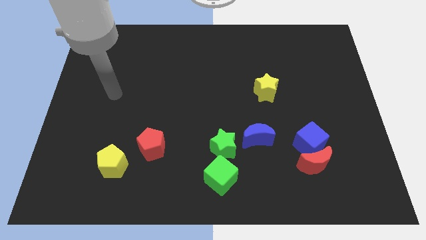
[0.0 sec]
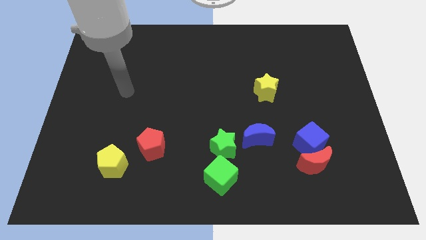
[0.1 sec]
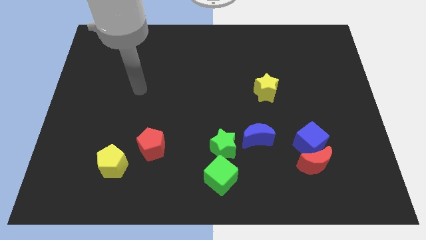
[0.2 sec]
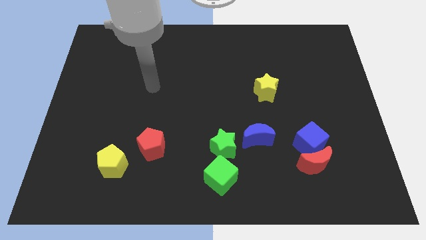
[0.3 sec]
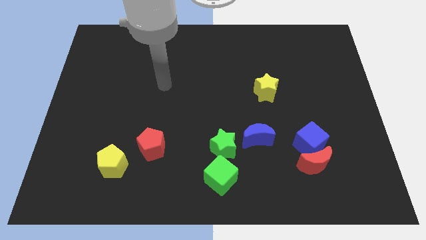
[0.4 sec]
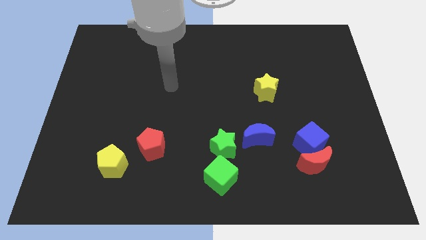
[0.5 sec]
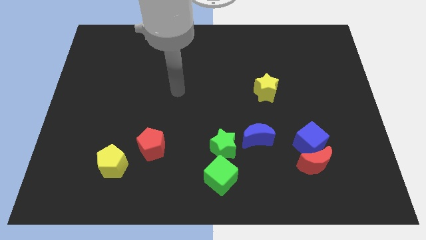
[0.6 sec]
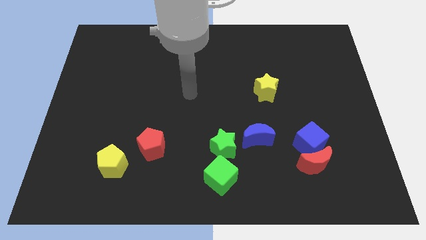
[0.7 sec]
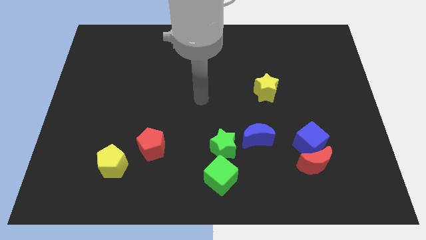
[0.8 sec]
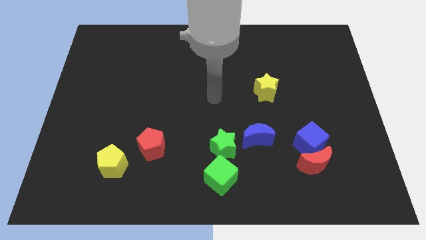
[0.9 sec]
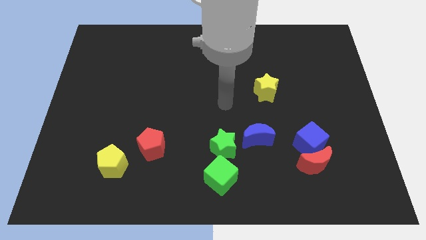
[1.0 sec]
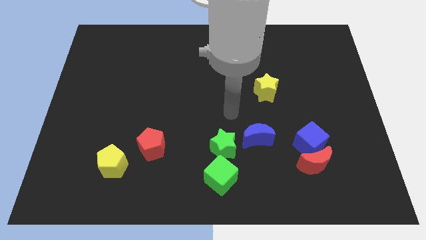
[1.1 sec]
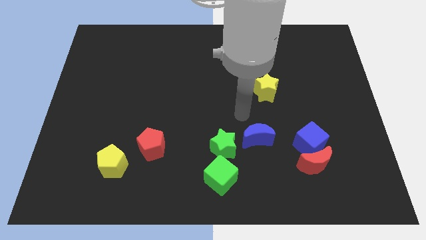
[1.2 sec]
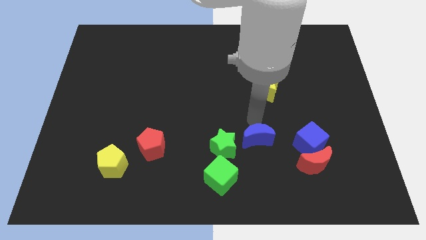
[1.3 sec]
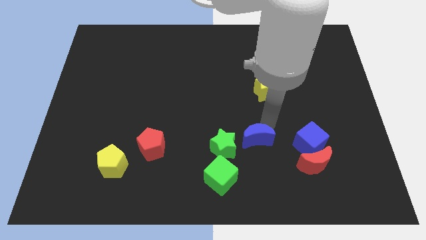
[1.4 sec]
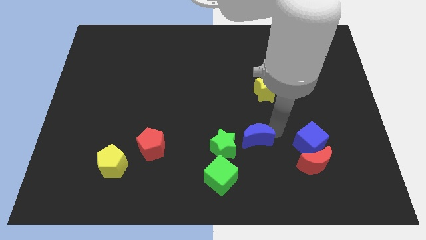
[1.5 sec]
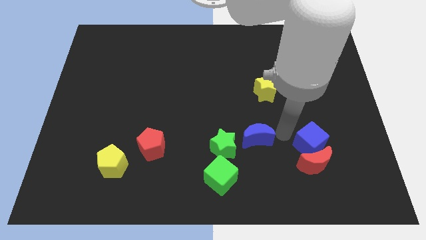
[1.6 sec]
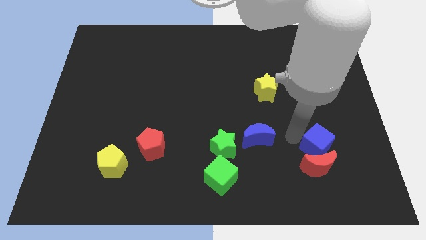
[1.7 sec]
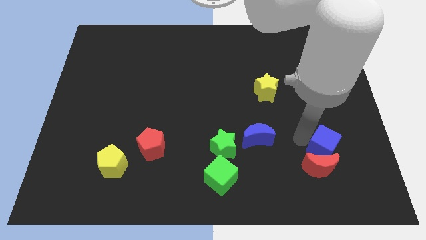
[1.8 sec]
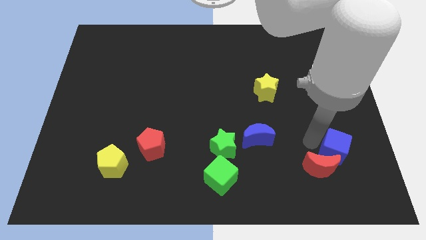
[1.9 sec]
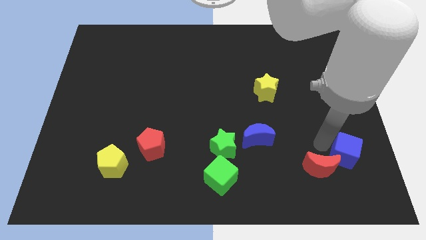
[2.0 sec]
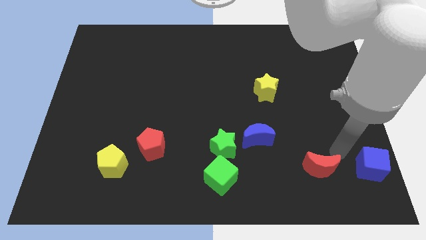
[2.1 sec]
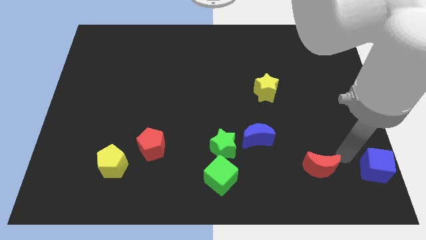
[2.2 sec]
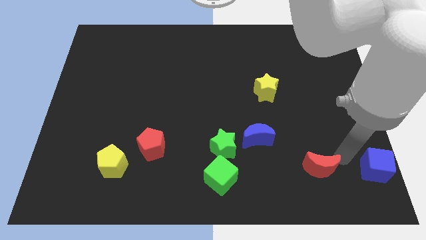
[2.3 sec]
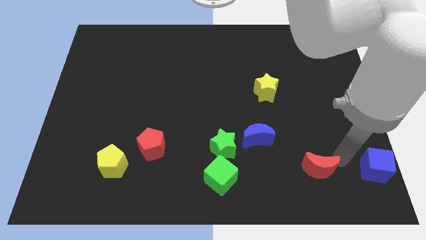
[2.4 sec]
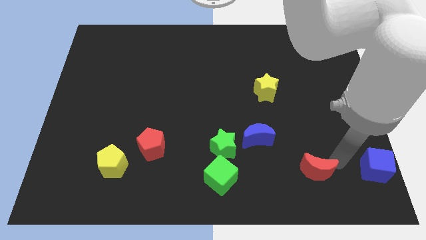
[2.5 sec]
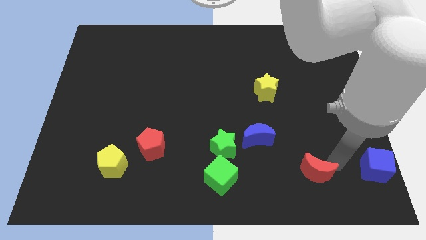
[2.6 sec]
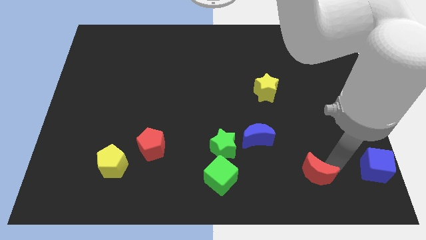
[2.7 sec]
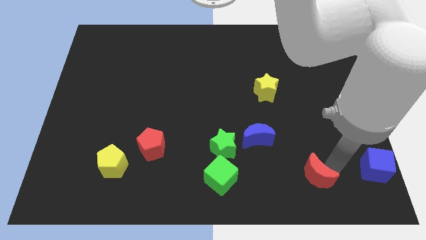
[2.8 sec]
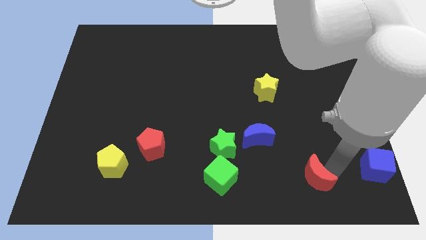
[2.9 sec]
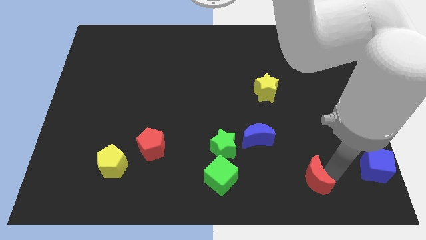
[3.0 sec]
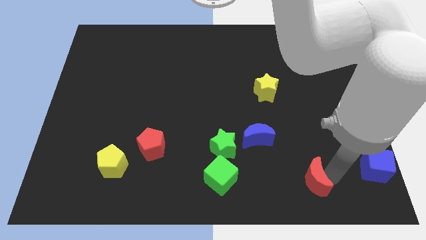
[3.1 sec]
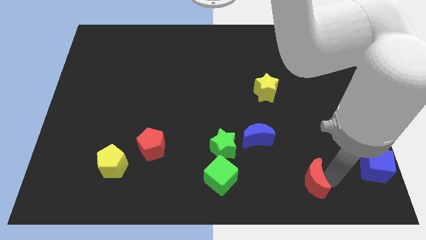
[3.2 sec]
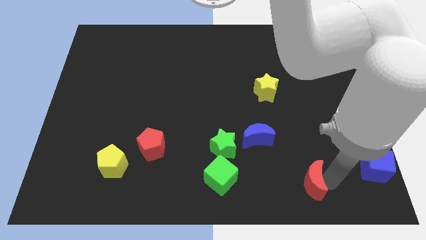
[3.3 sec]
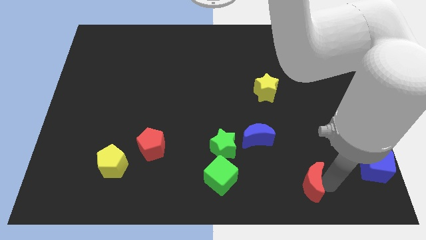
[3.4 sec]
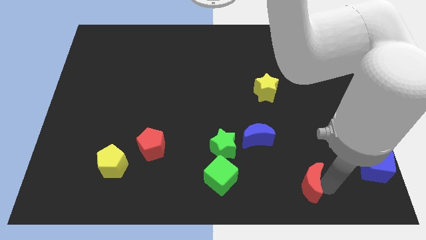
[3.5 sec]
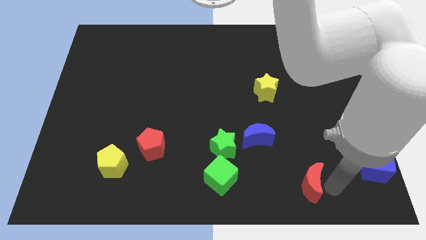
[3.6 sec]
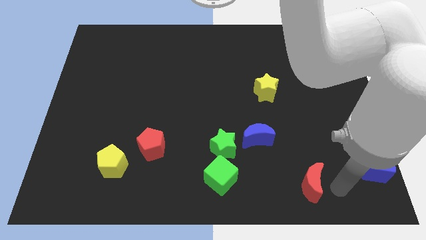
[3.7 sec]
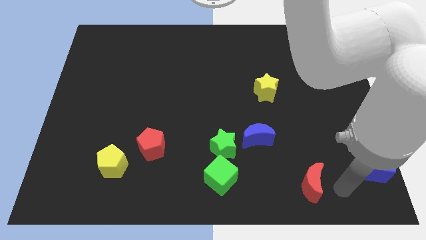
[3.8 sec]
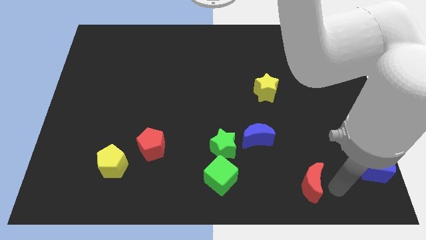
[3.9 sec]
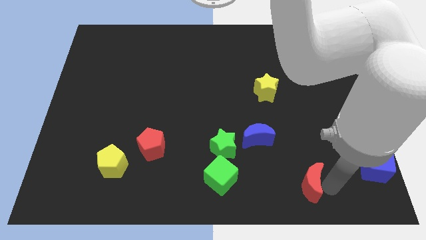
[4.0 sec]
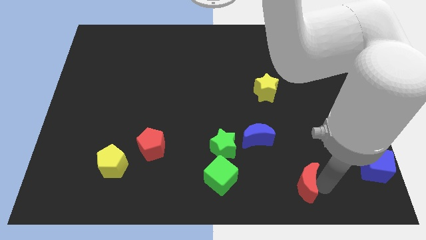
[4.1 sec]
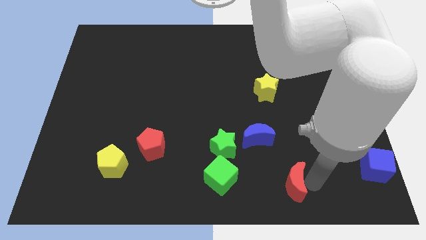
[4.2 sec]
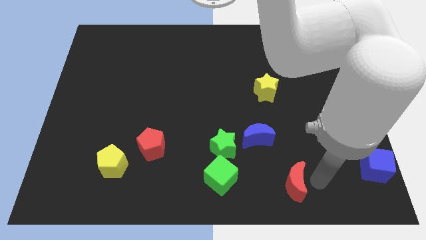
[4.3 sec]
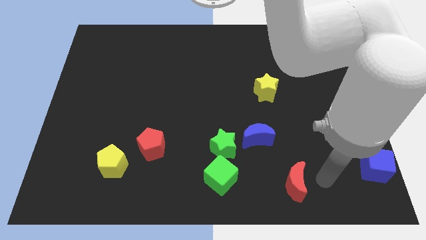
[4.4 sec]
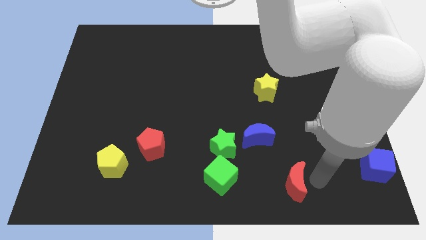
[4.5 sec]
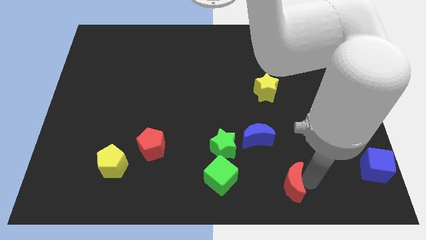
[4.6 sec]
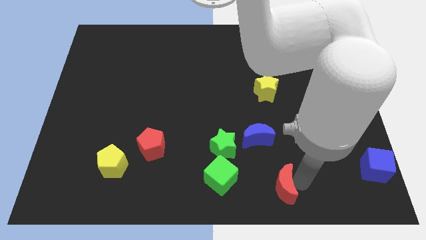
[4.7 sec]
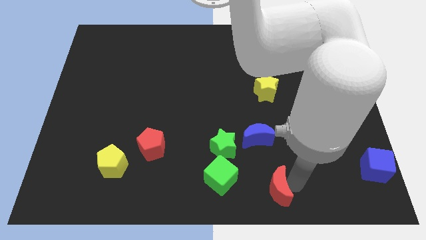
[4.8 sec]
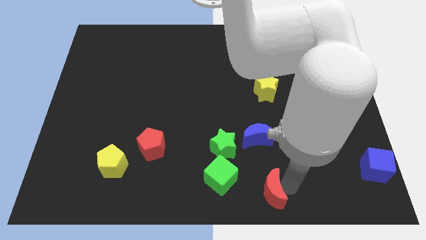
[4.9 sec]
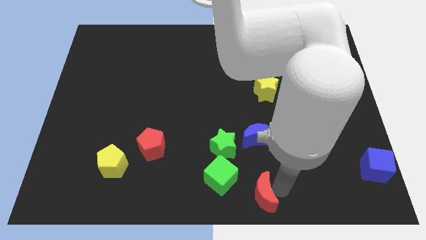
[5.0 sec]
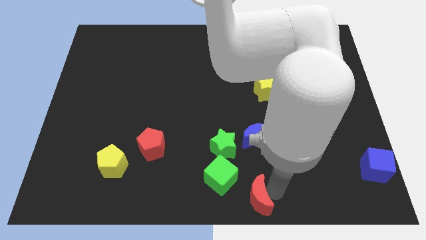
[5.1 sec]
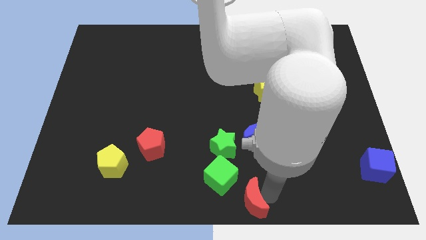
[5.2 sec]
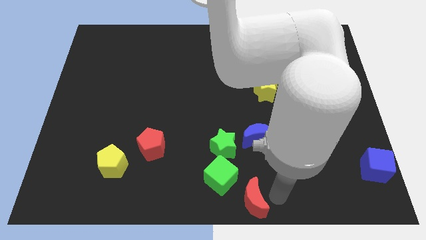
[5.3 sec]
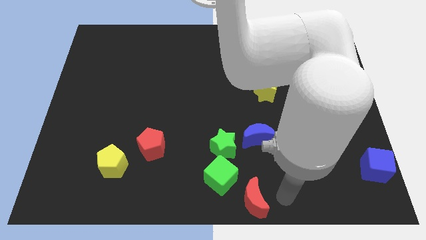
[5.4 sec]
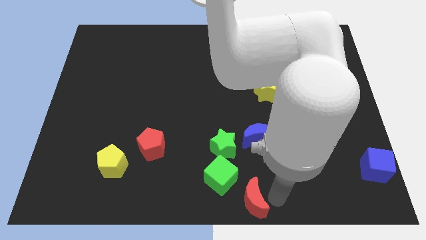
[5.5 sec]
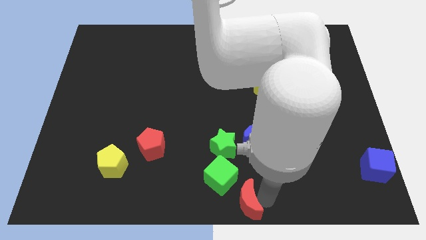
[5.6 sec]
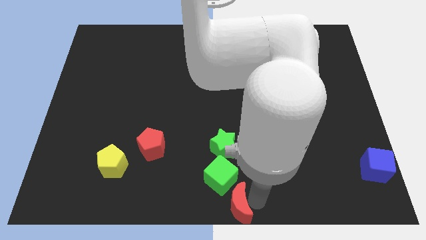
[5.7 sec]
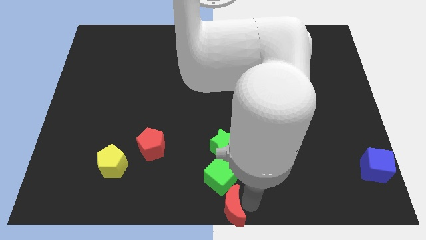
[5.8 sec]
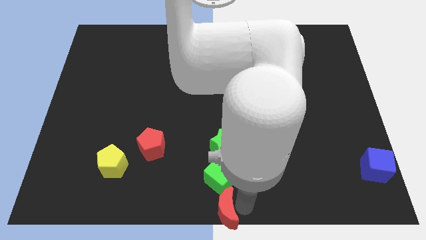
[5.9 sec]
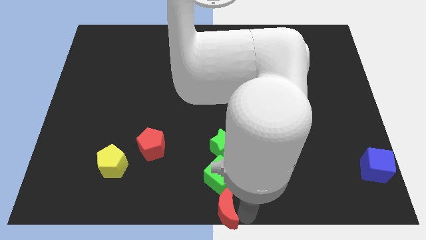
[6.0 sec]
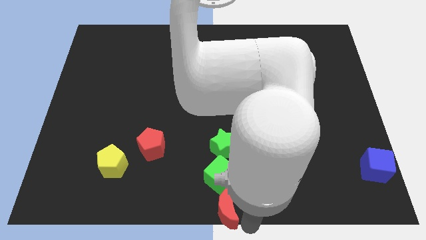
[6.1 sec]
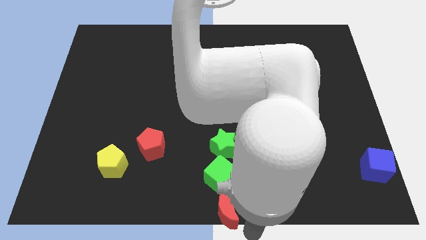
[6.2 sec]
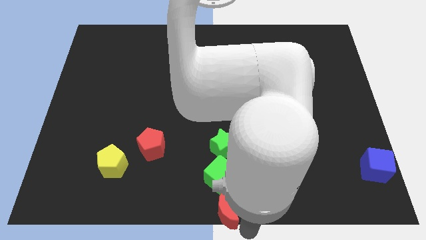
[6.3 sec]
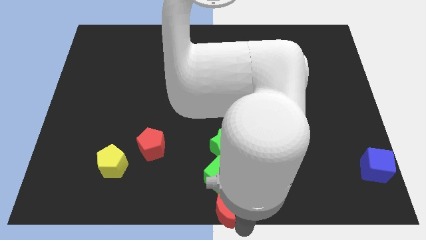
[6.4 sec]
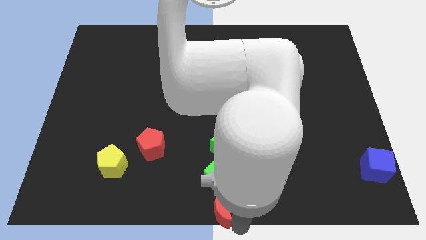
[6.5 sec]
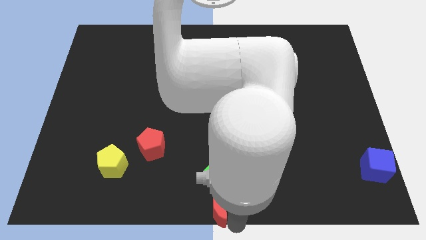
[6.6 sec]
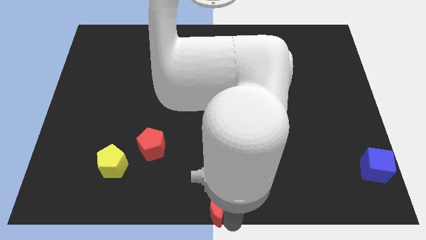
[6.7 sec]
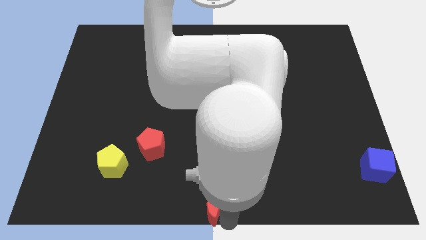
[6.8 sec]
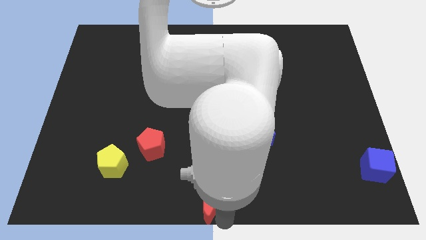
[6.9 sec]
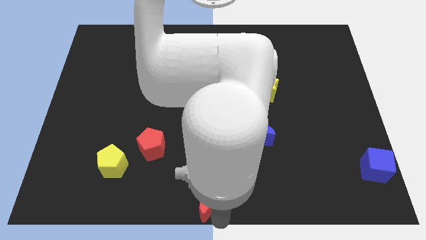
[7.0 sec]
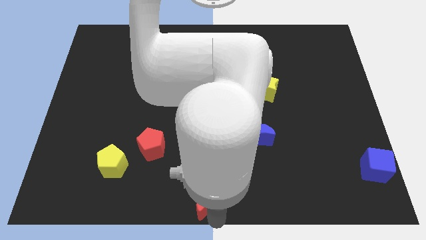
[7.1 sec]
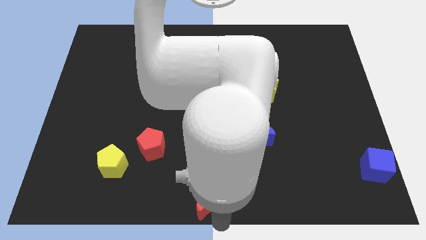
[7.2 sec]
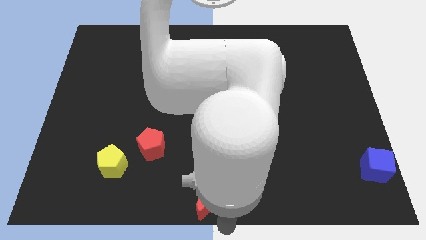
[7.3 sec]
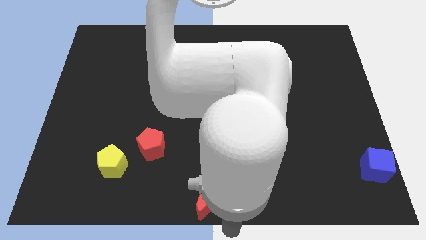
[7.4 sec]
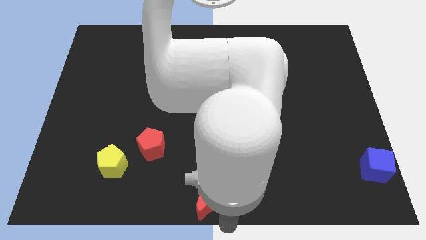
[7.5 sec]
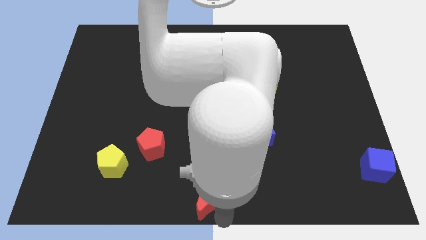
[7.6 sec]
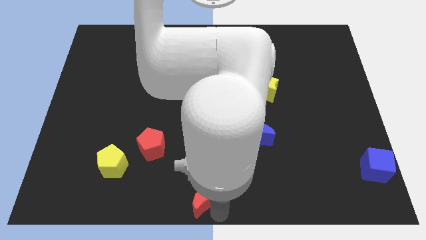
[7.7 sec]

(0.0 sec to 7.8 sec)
move the red moon to the left

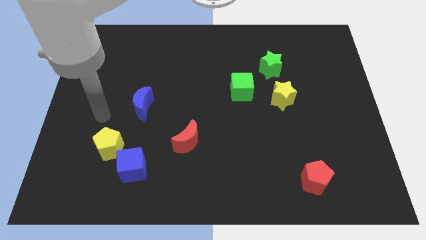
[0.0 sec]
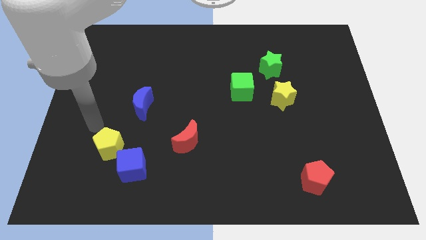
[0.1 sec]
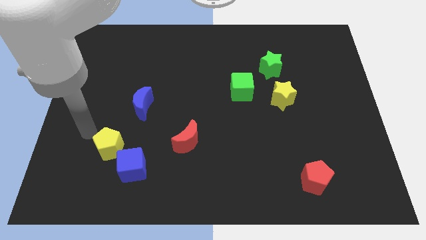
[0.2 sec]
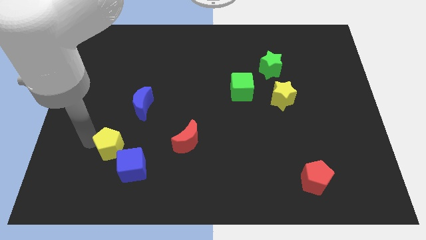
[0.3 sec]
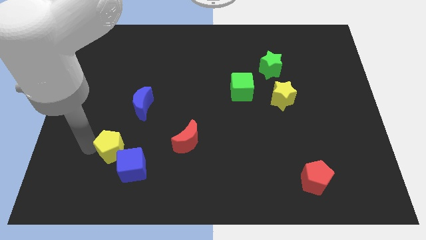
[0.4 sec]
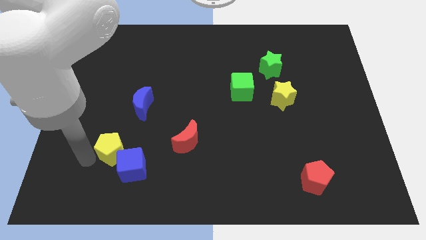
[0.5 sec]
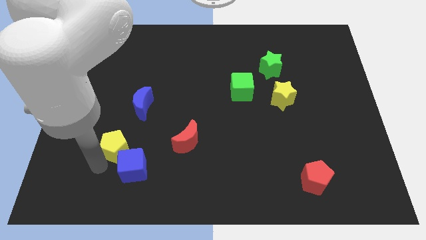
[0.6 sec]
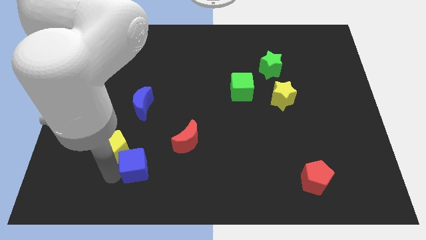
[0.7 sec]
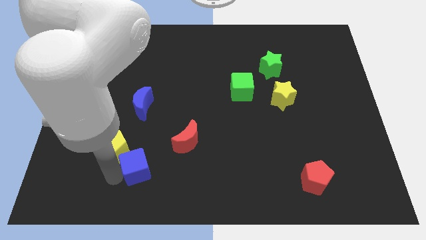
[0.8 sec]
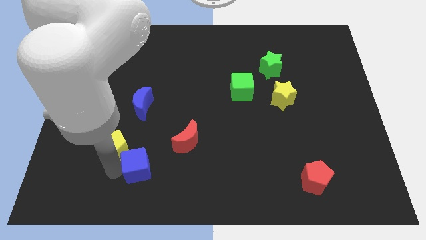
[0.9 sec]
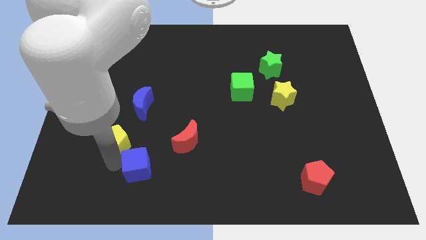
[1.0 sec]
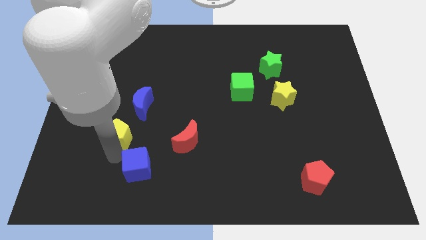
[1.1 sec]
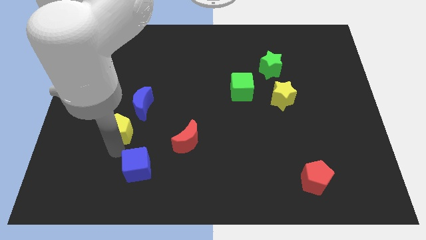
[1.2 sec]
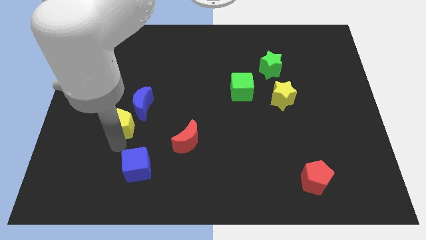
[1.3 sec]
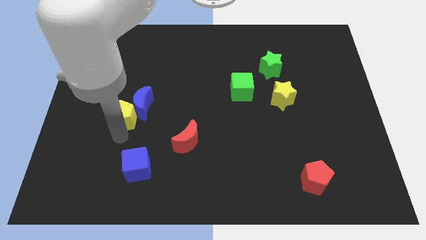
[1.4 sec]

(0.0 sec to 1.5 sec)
slide the yellow pentagon up a little bit
